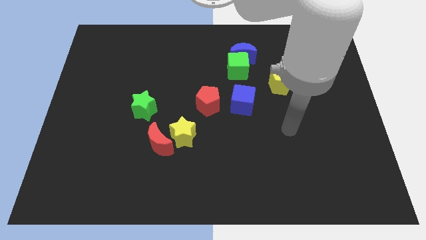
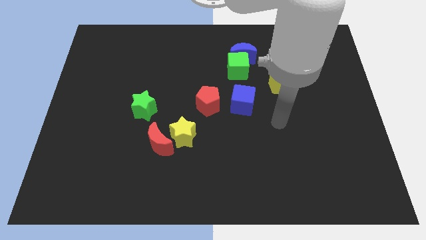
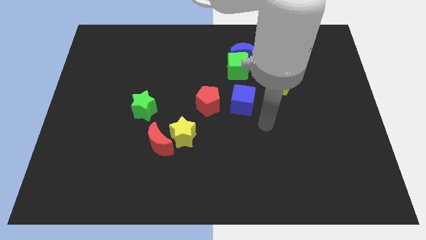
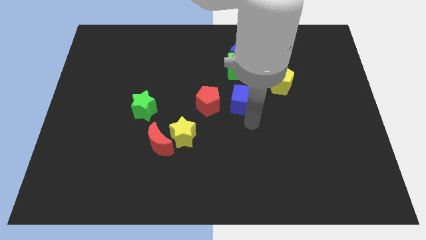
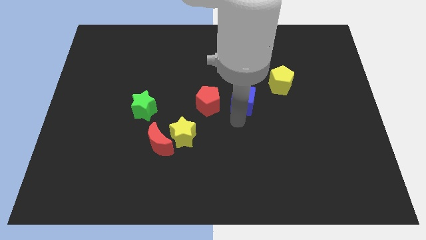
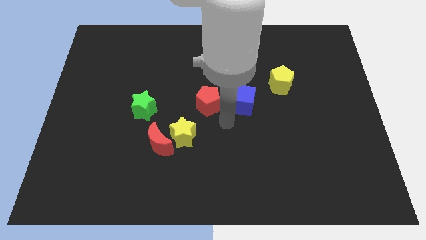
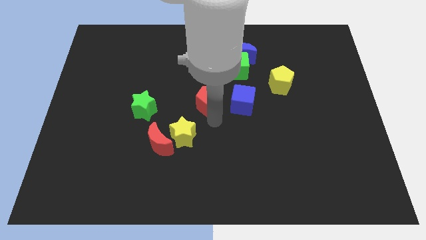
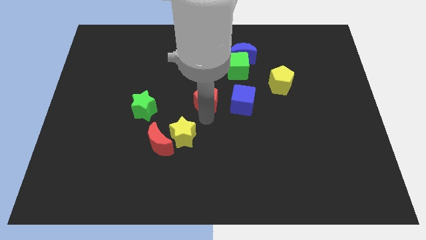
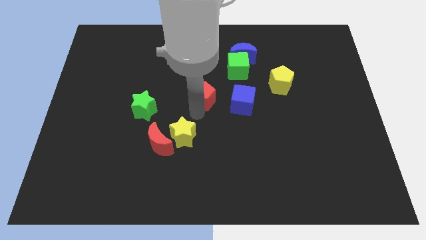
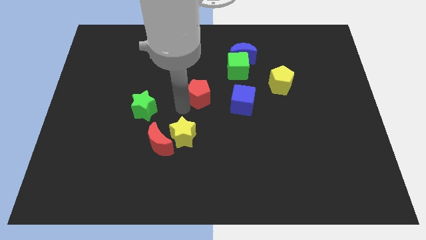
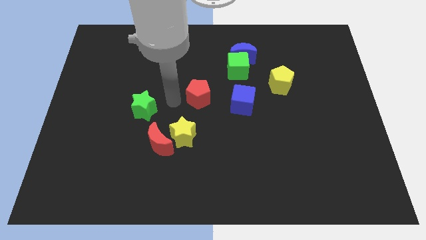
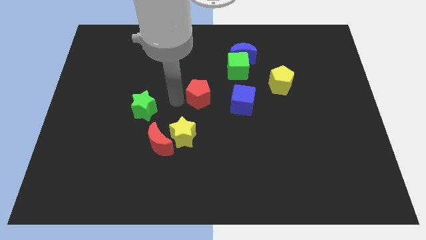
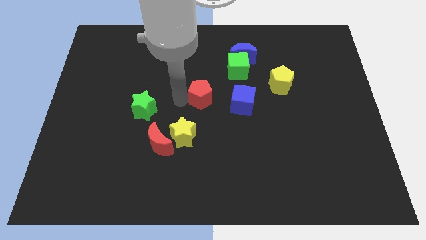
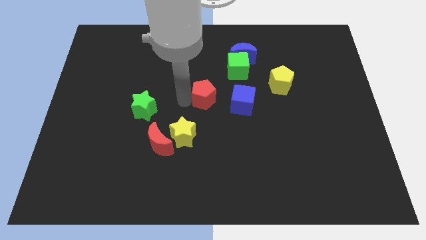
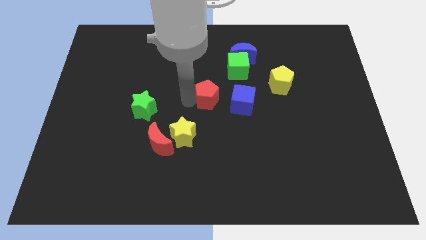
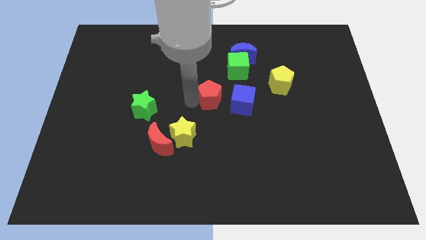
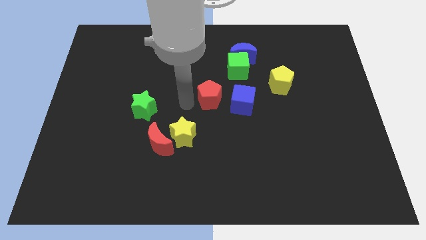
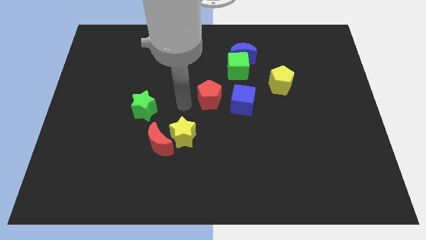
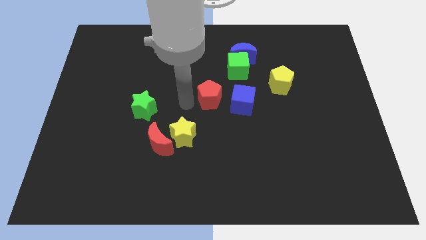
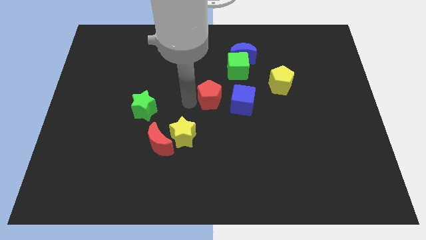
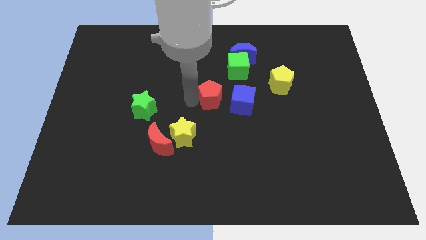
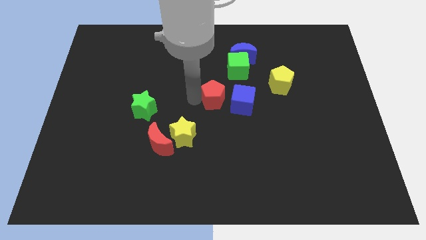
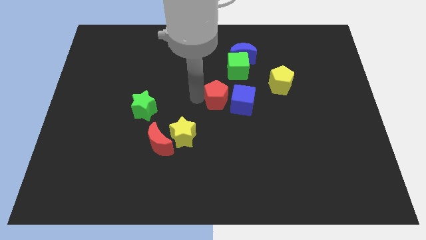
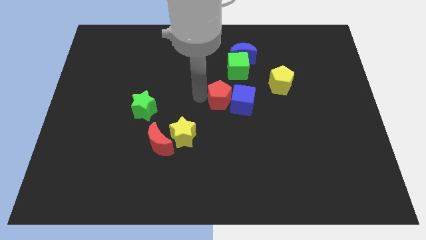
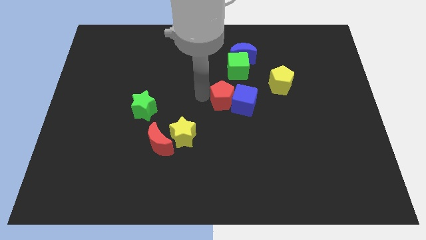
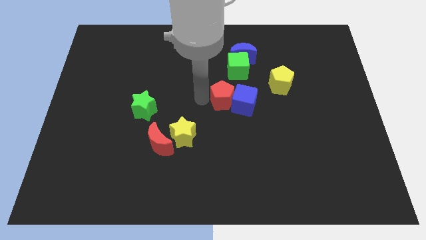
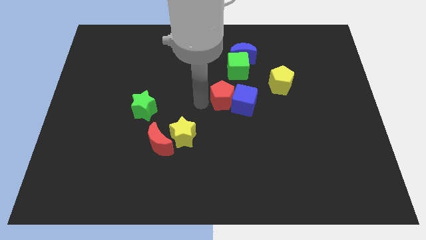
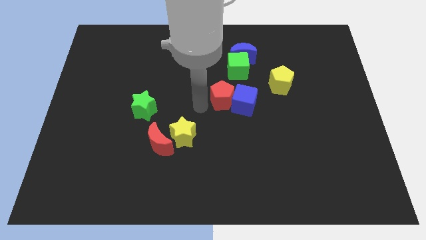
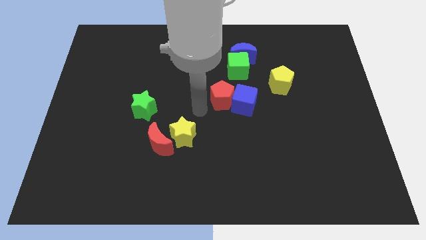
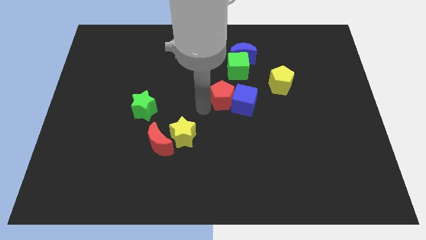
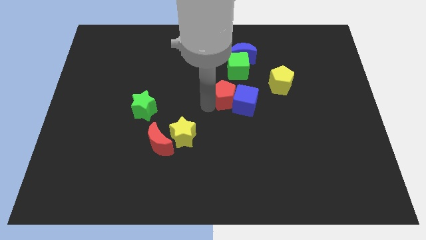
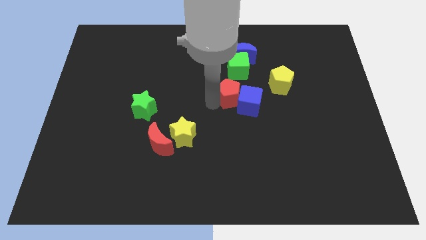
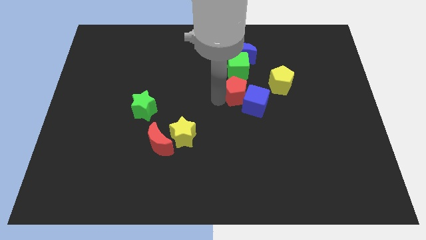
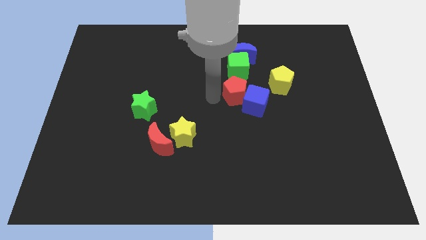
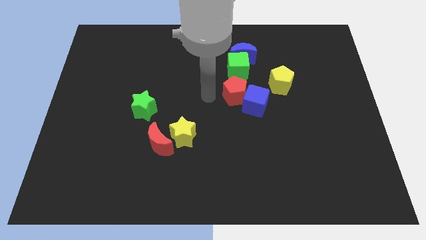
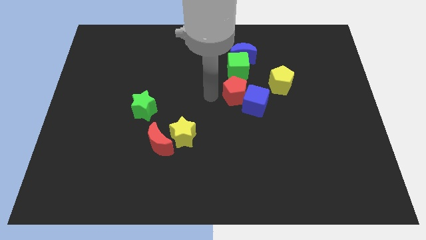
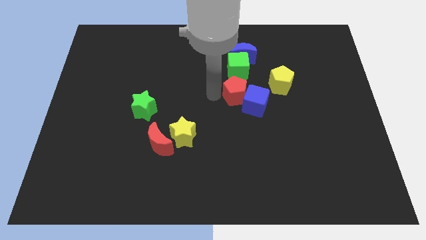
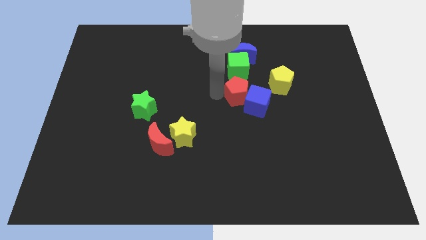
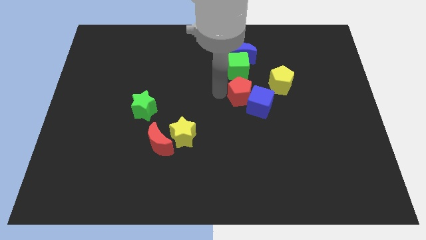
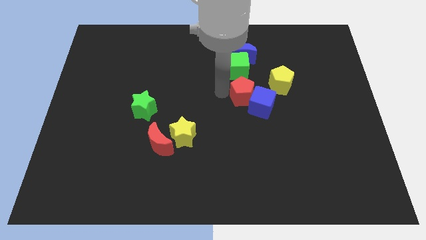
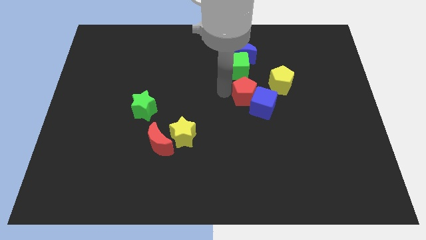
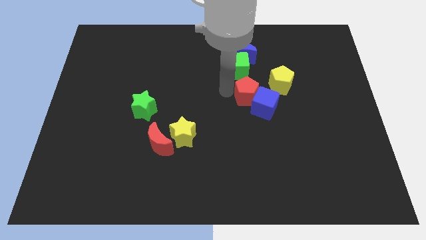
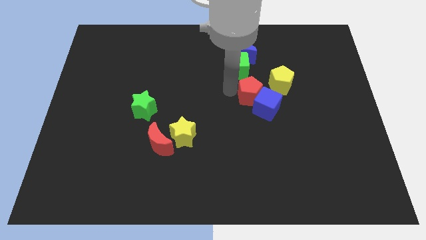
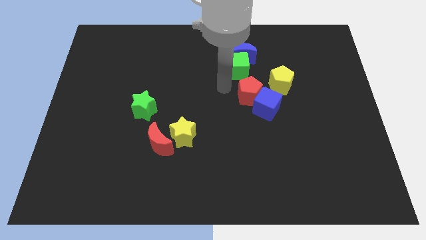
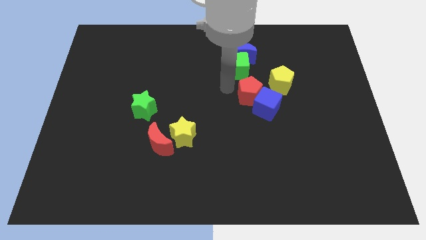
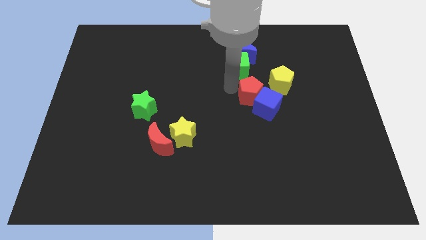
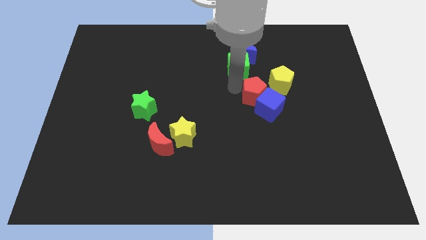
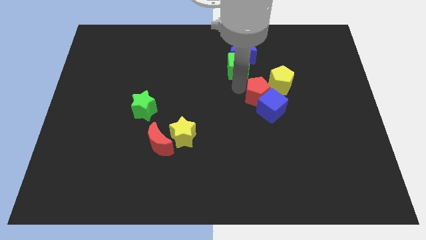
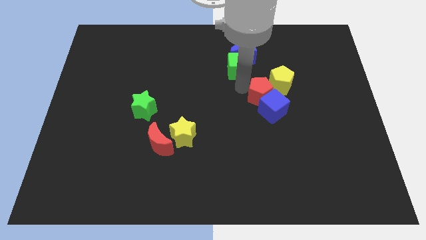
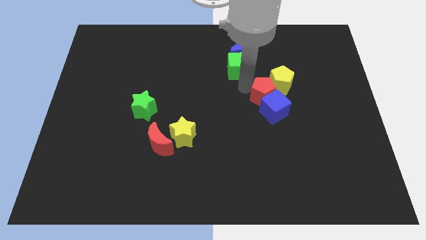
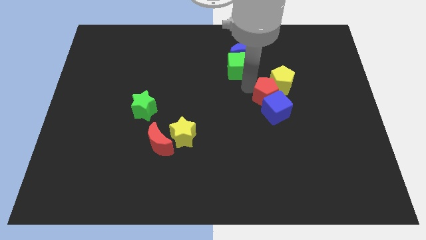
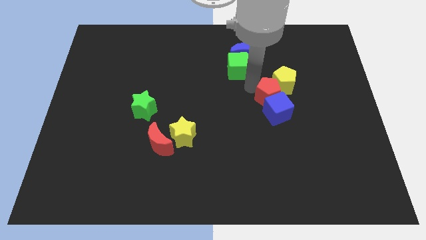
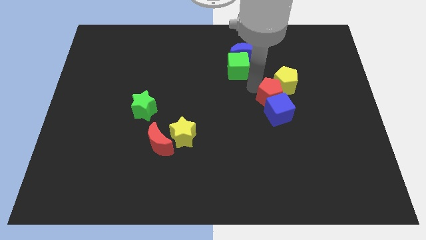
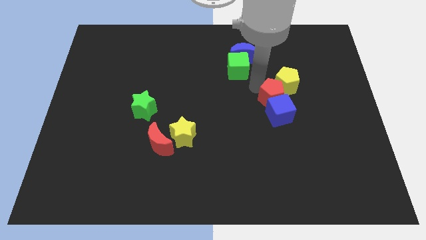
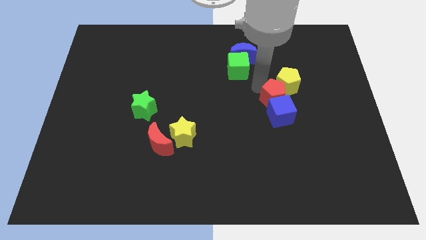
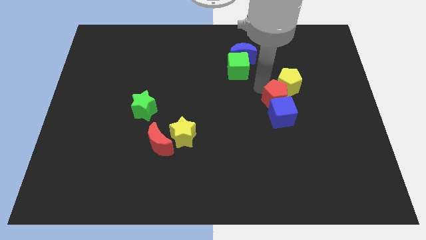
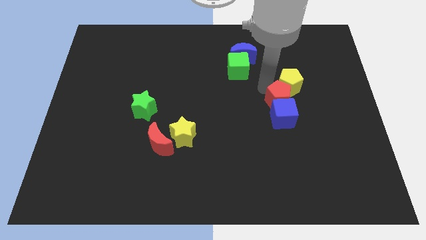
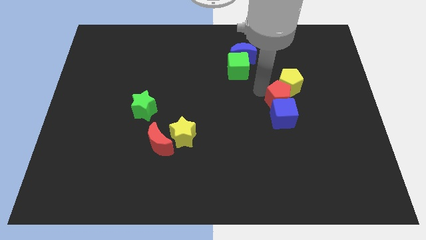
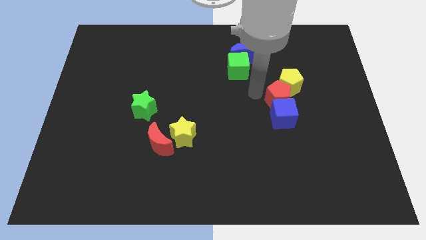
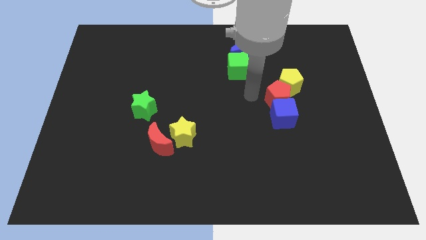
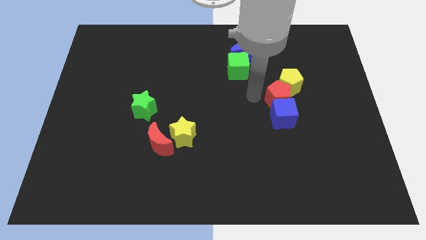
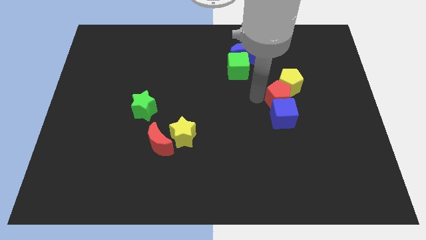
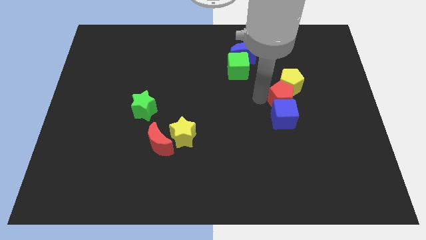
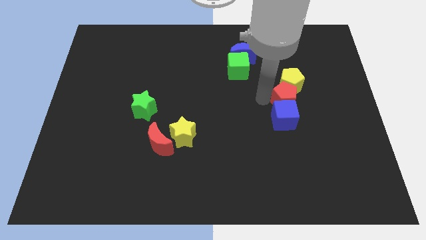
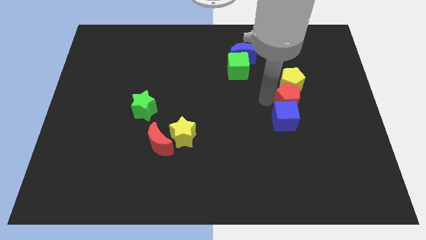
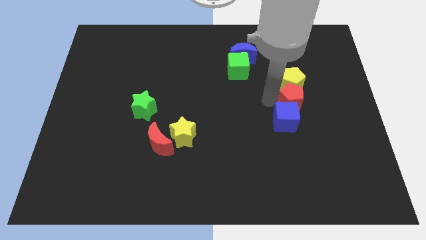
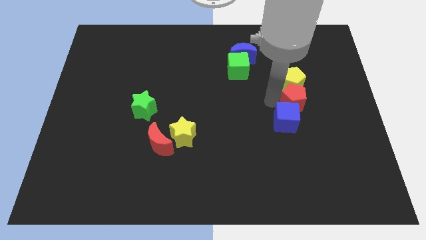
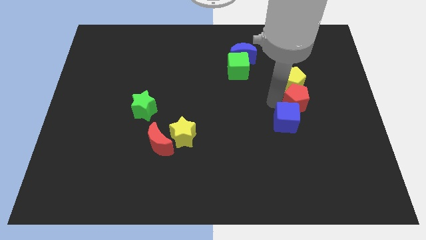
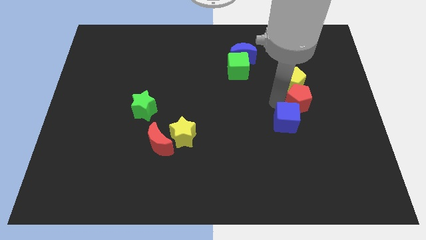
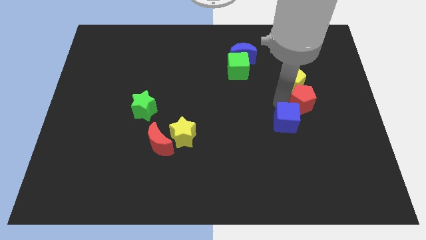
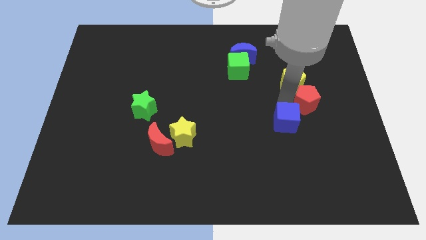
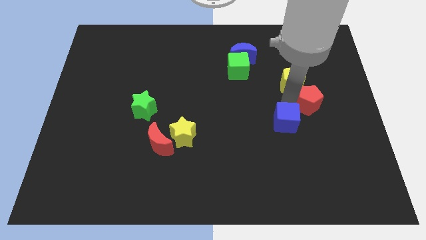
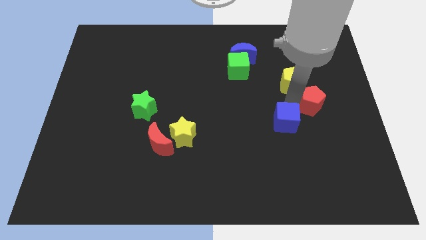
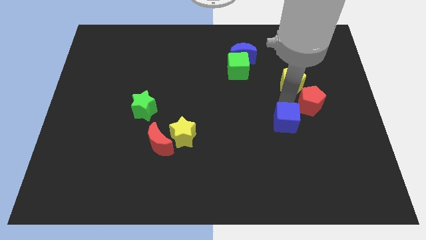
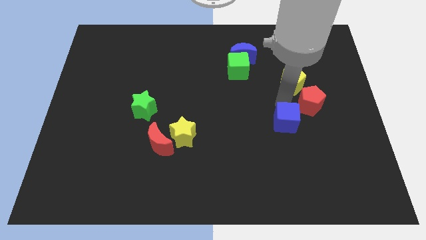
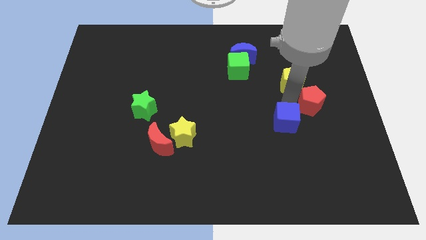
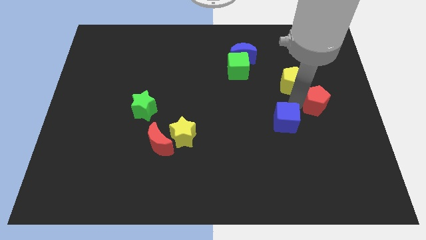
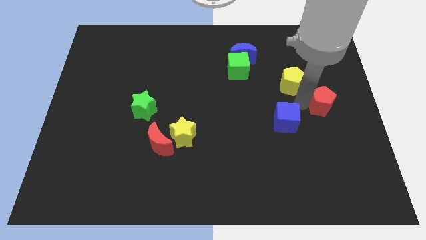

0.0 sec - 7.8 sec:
move the red pentagon to the right side
